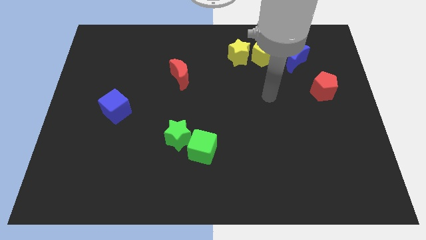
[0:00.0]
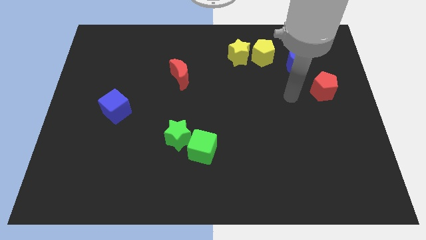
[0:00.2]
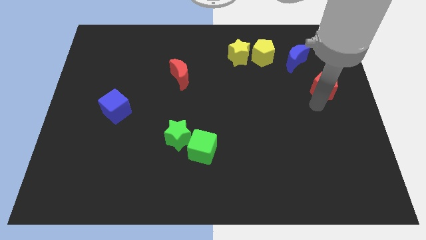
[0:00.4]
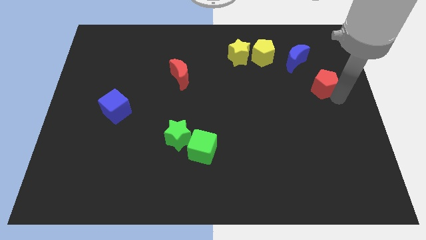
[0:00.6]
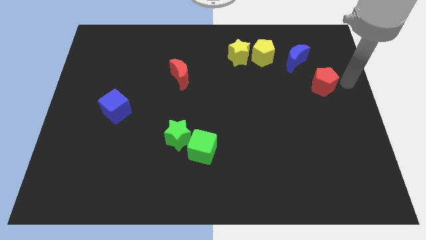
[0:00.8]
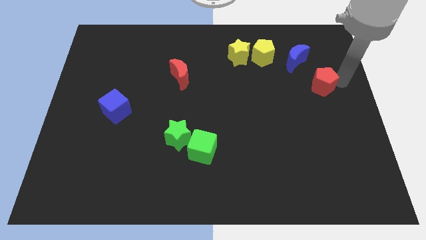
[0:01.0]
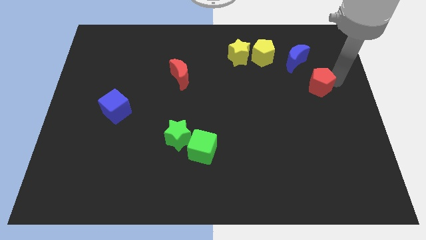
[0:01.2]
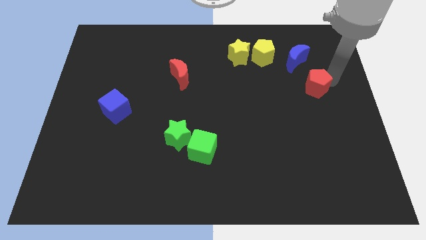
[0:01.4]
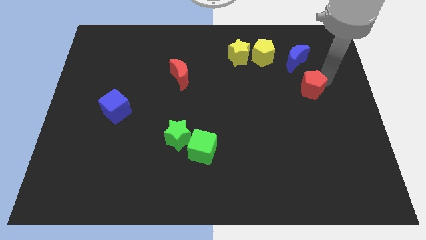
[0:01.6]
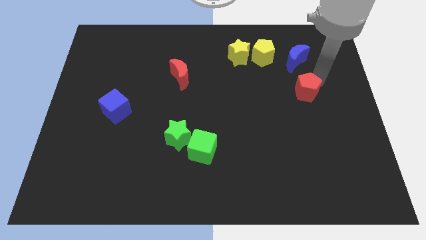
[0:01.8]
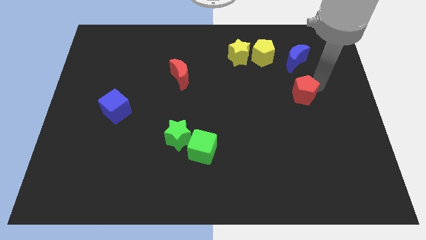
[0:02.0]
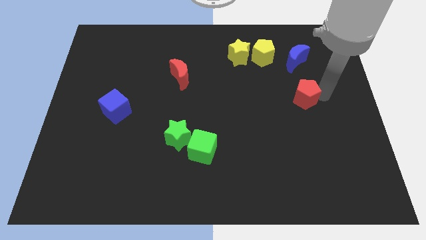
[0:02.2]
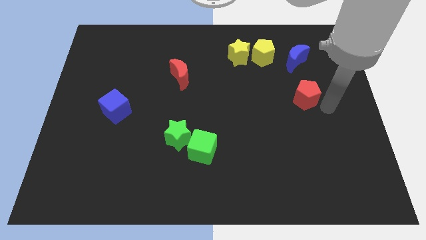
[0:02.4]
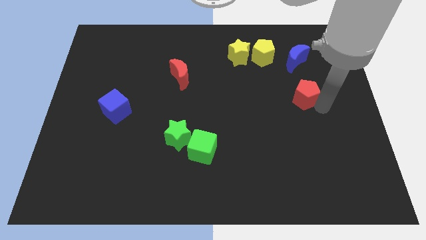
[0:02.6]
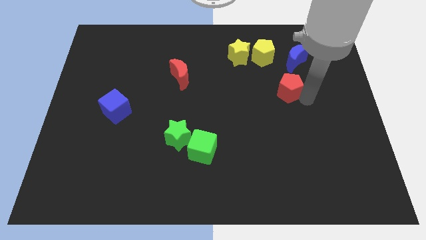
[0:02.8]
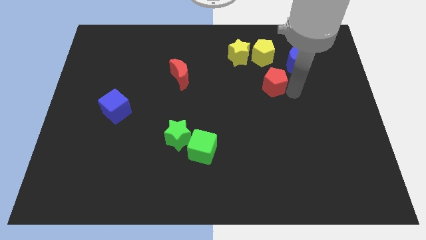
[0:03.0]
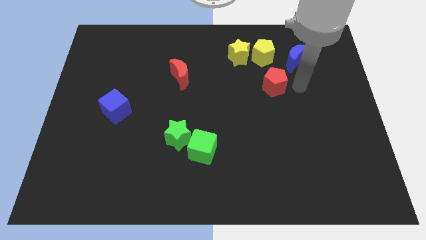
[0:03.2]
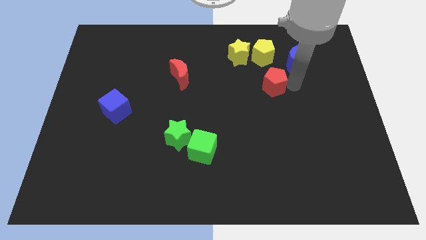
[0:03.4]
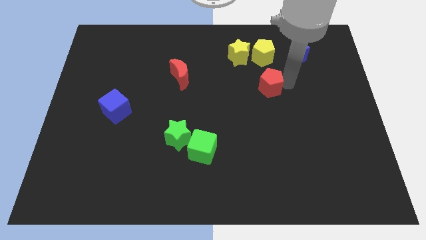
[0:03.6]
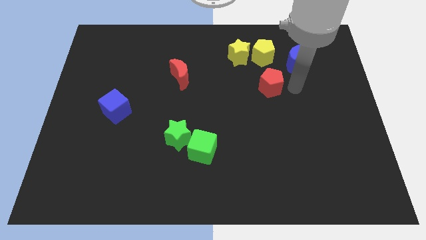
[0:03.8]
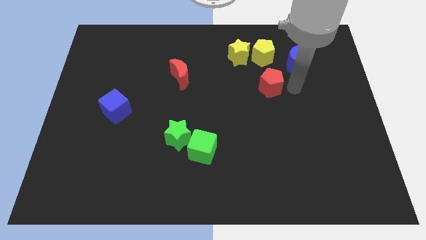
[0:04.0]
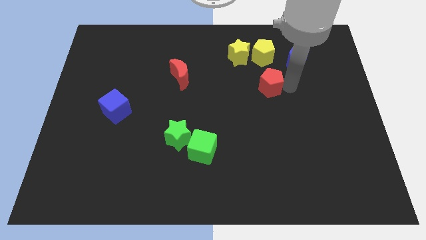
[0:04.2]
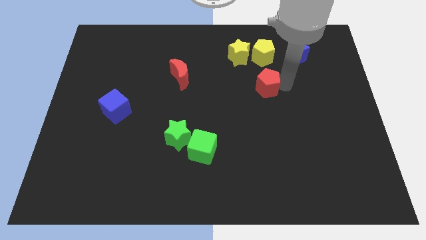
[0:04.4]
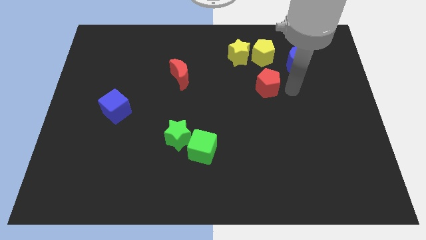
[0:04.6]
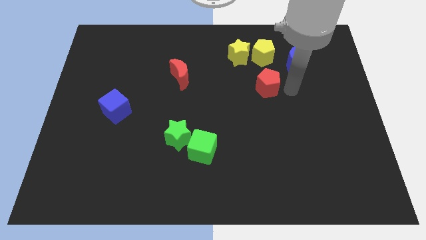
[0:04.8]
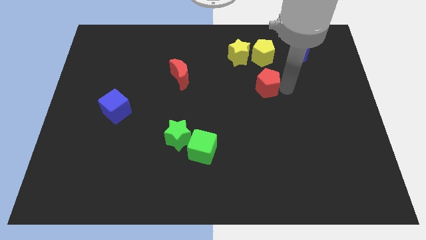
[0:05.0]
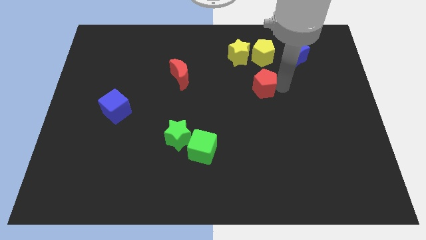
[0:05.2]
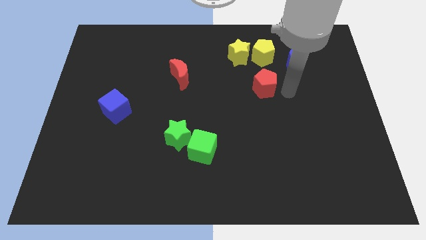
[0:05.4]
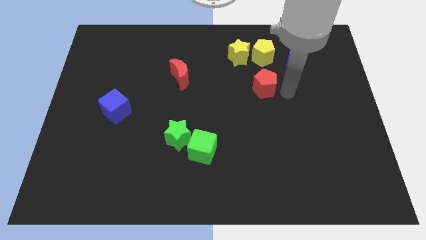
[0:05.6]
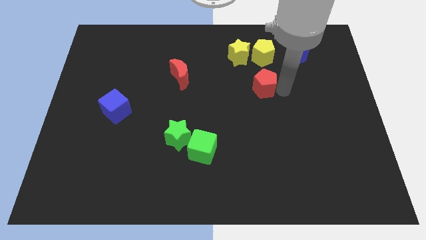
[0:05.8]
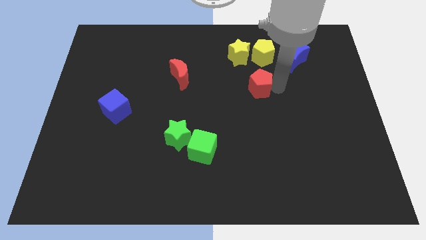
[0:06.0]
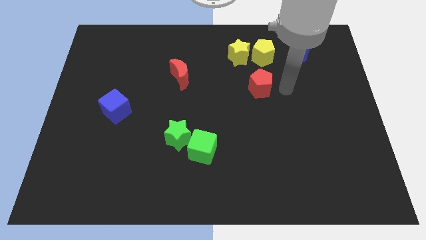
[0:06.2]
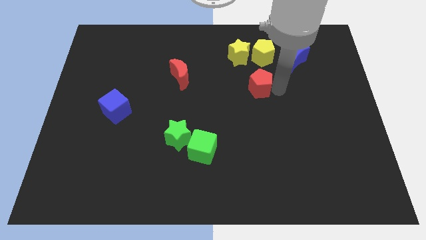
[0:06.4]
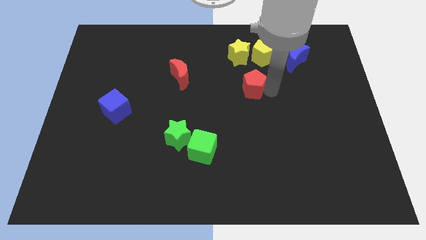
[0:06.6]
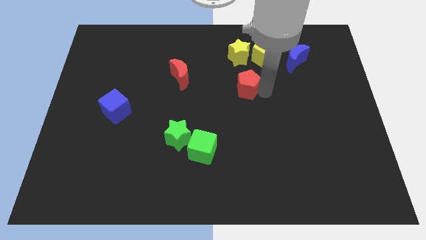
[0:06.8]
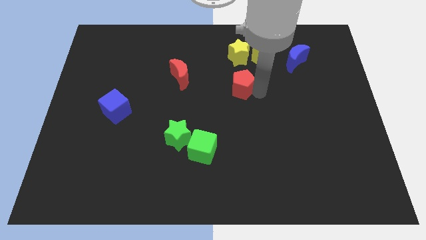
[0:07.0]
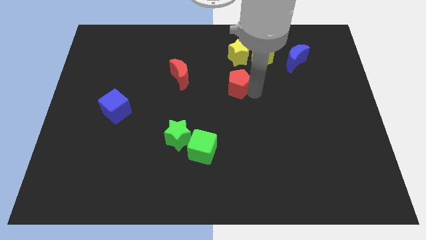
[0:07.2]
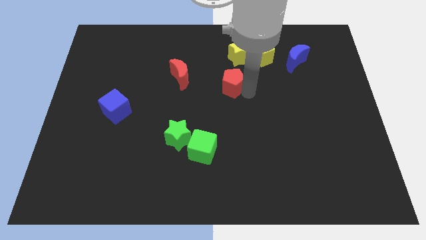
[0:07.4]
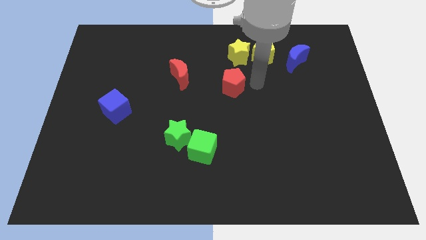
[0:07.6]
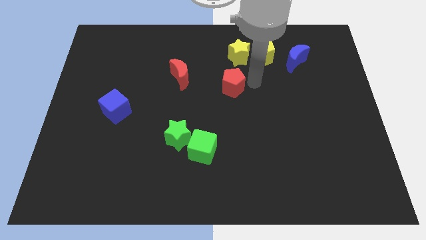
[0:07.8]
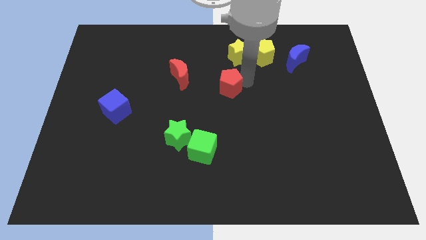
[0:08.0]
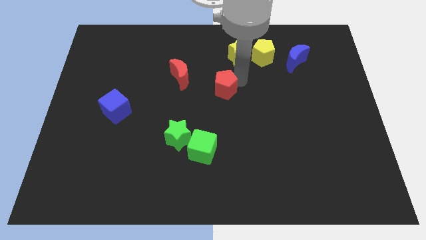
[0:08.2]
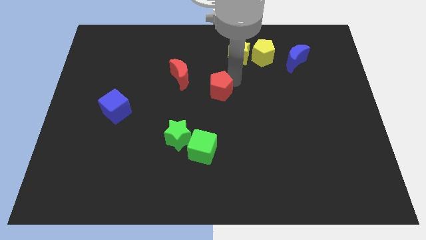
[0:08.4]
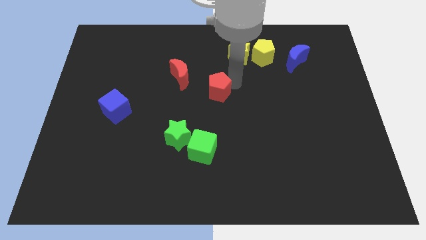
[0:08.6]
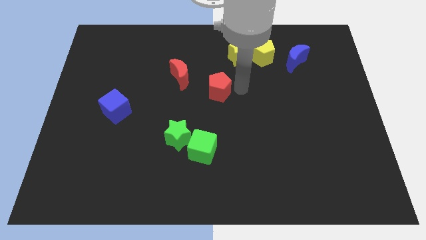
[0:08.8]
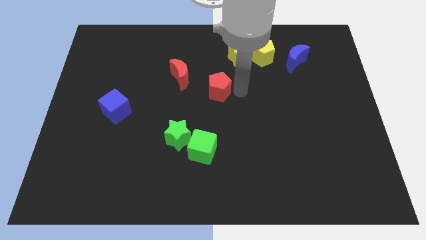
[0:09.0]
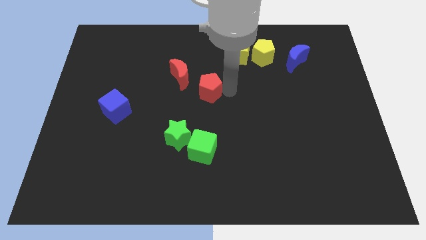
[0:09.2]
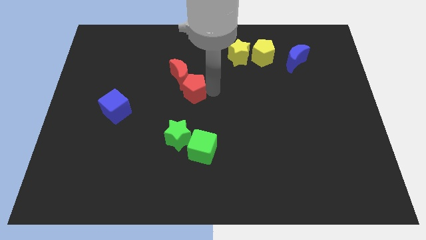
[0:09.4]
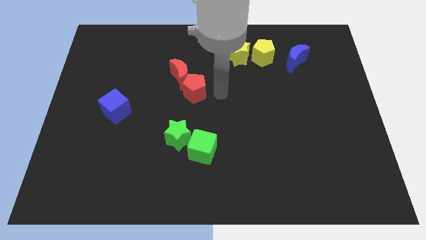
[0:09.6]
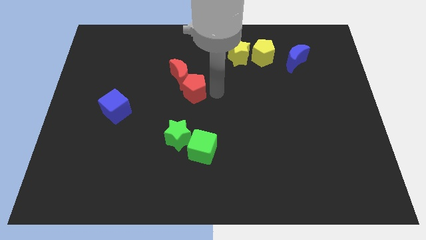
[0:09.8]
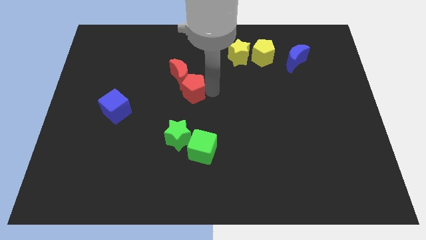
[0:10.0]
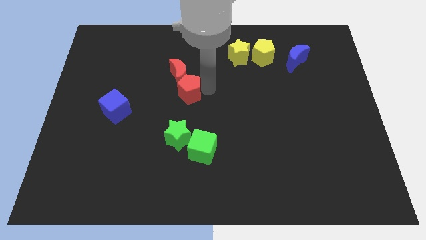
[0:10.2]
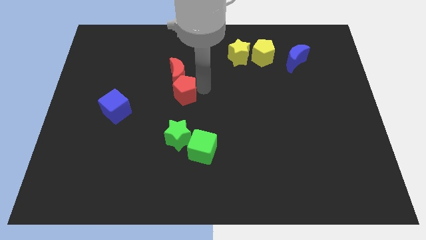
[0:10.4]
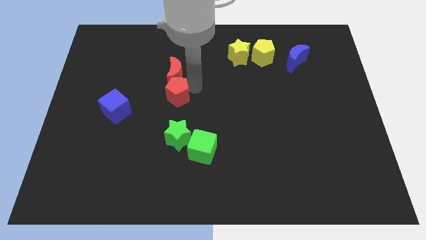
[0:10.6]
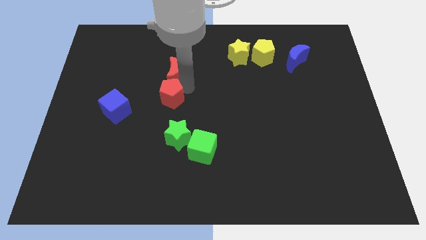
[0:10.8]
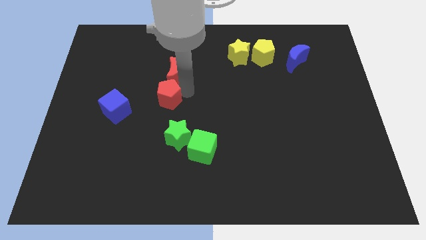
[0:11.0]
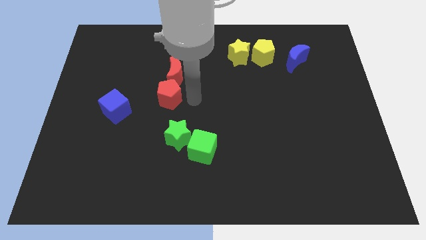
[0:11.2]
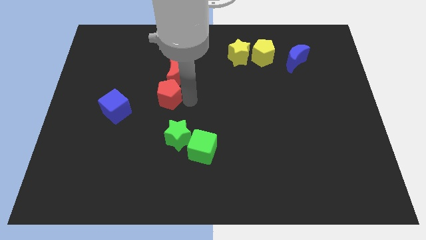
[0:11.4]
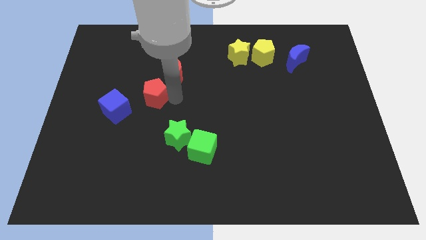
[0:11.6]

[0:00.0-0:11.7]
push the red pentagon to the top right side of the blue cube

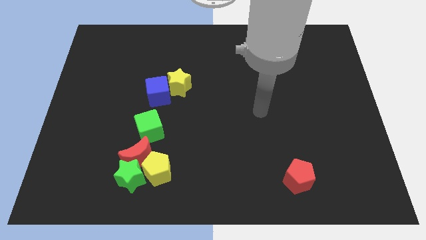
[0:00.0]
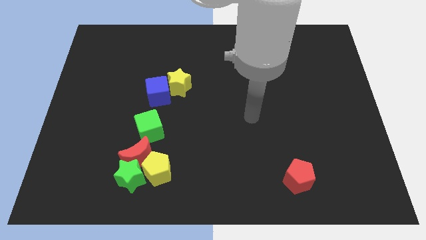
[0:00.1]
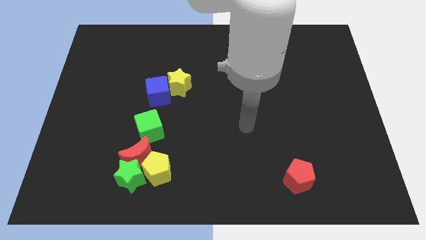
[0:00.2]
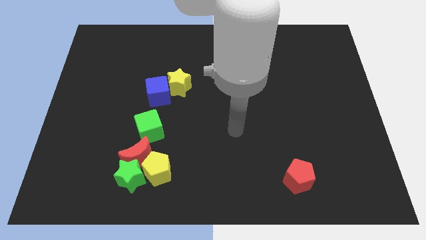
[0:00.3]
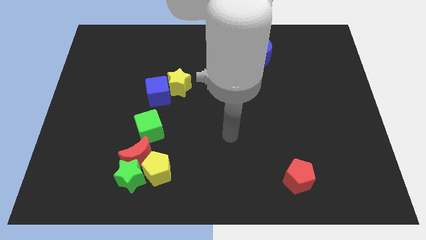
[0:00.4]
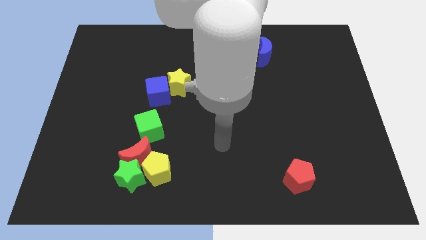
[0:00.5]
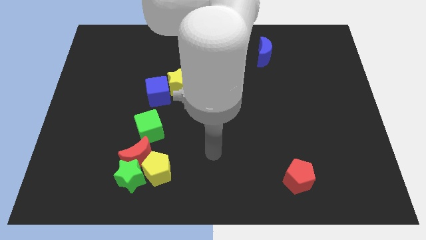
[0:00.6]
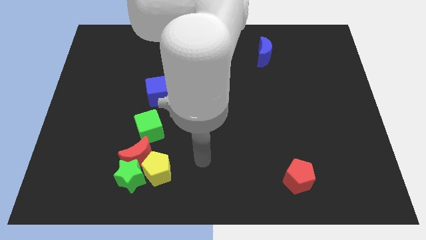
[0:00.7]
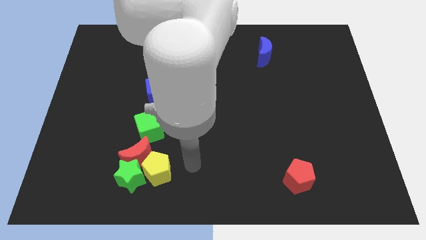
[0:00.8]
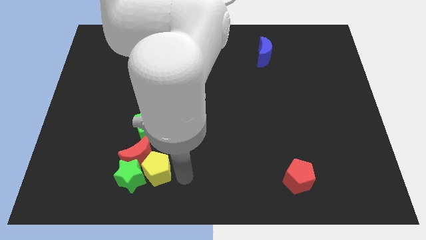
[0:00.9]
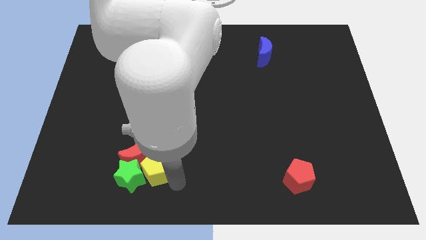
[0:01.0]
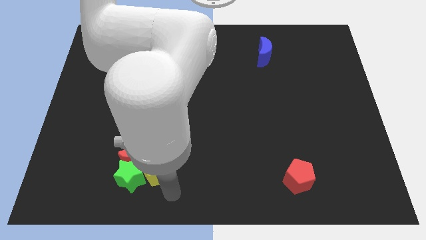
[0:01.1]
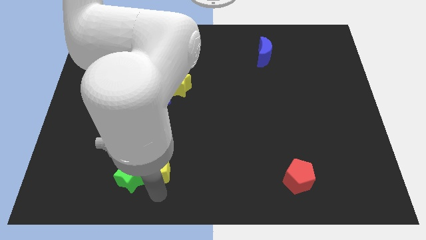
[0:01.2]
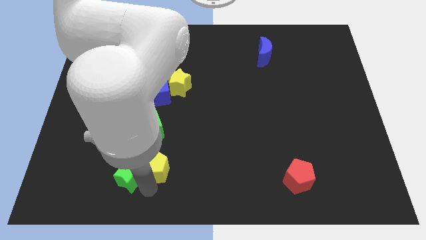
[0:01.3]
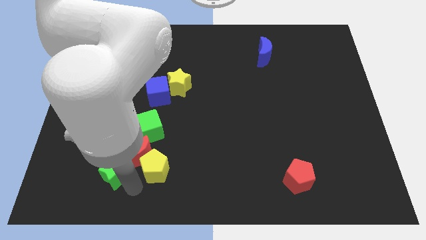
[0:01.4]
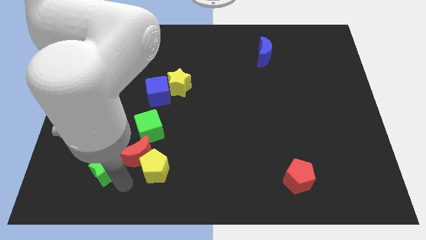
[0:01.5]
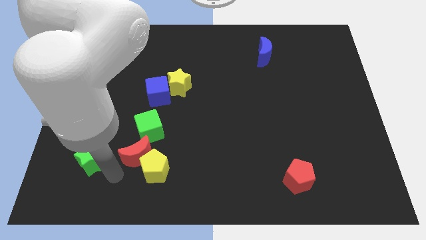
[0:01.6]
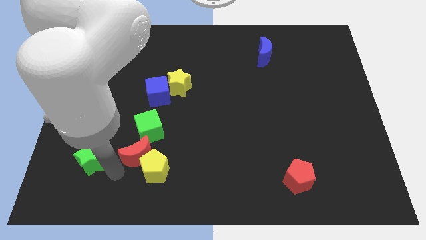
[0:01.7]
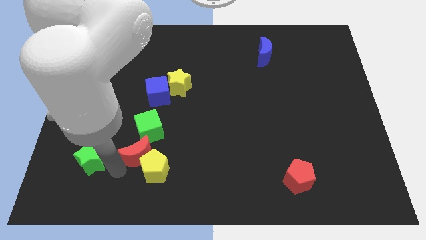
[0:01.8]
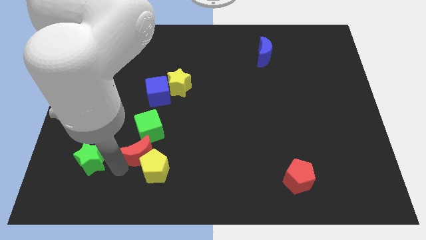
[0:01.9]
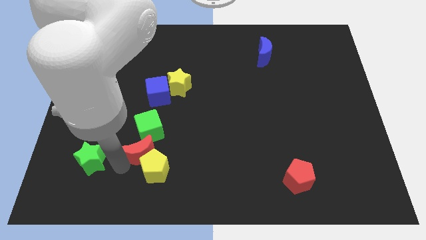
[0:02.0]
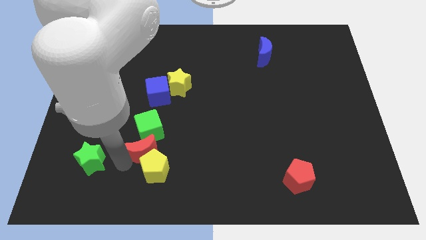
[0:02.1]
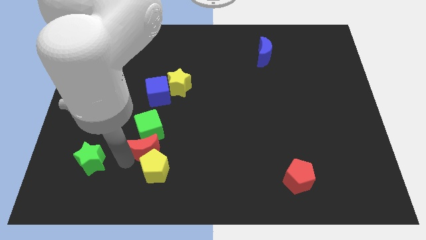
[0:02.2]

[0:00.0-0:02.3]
put the red moon to the bottom side of the blue cube
